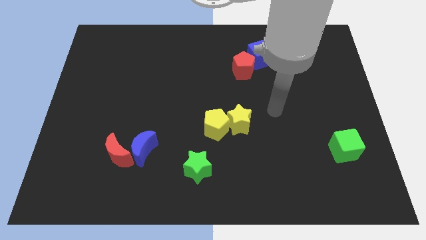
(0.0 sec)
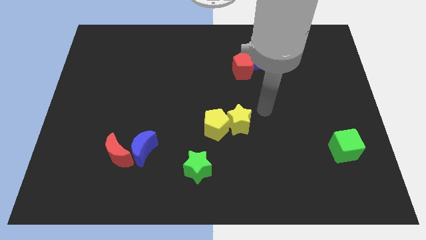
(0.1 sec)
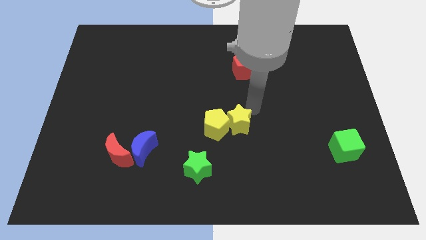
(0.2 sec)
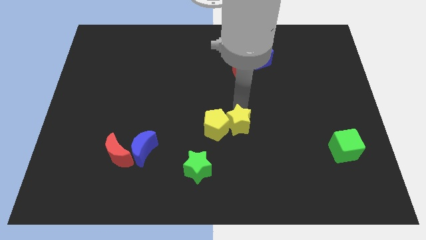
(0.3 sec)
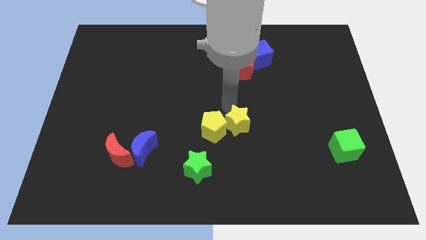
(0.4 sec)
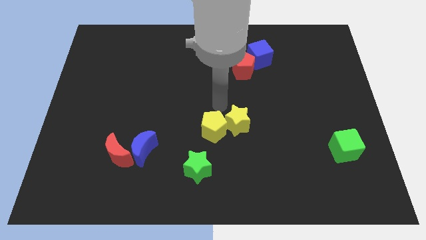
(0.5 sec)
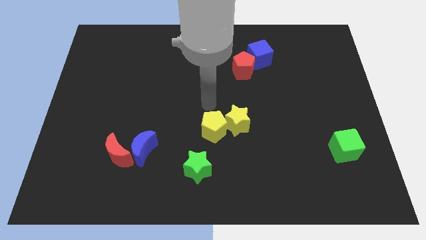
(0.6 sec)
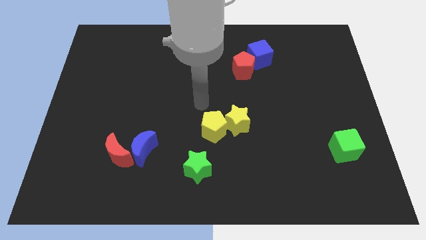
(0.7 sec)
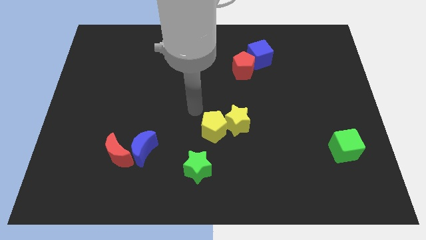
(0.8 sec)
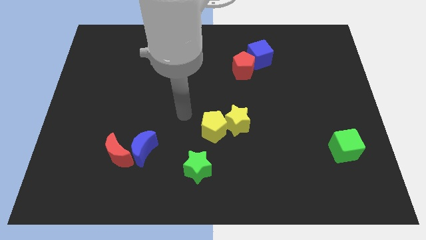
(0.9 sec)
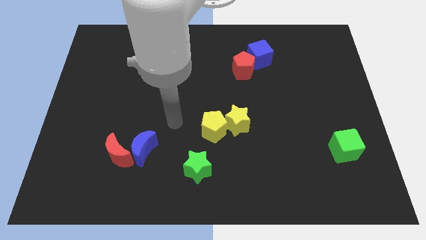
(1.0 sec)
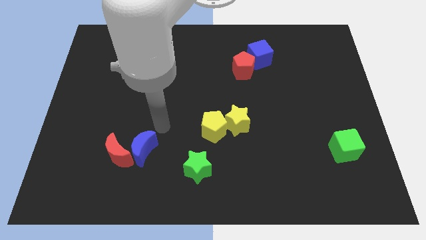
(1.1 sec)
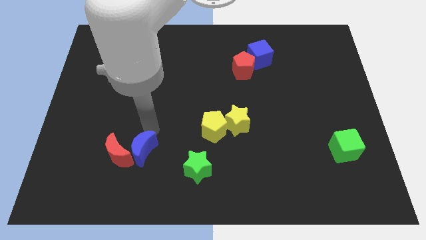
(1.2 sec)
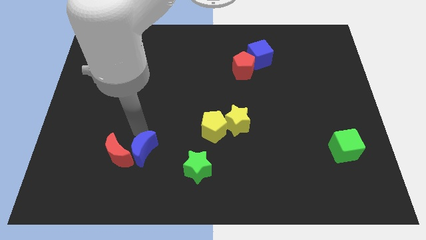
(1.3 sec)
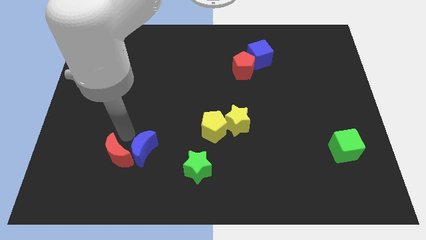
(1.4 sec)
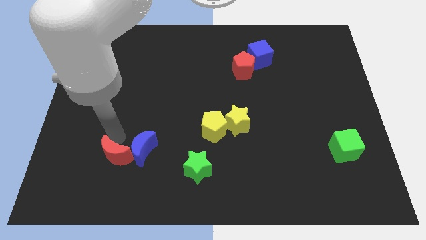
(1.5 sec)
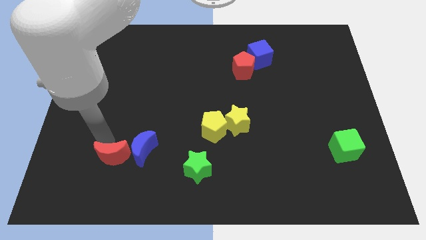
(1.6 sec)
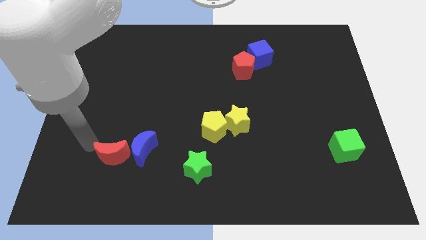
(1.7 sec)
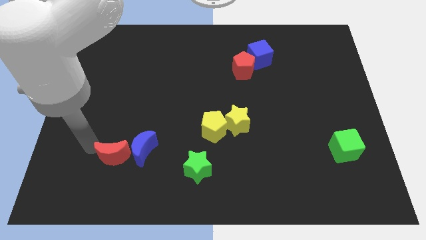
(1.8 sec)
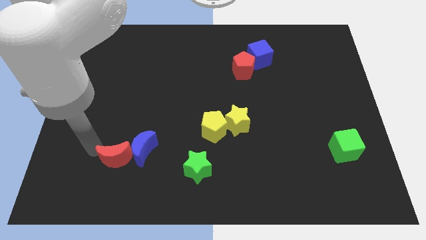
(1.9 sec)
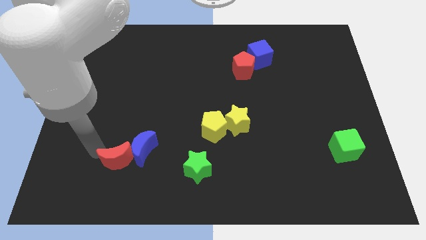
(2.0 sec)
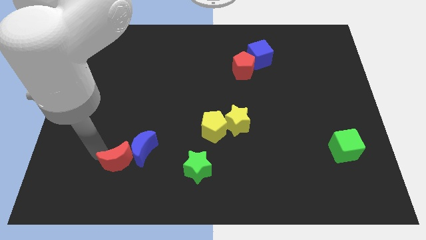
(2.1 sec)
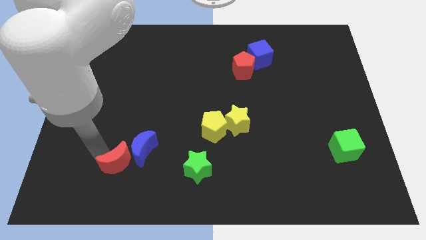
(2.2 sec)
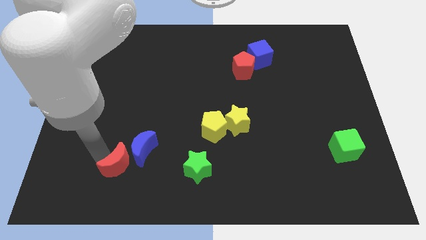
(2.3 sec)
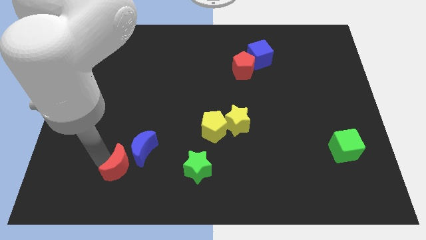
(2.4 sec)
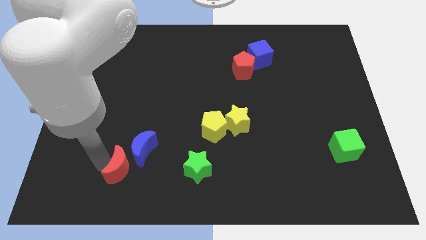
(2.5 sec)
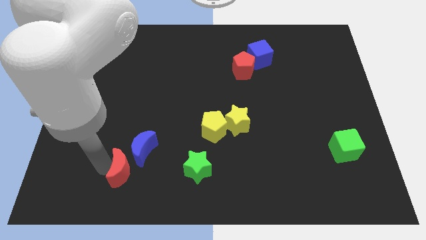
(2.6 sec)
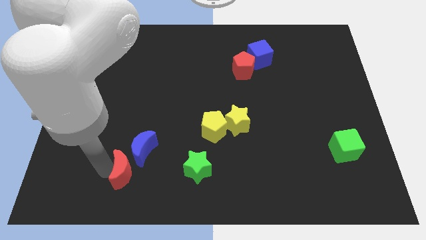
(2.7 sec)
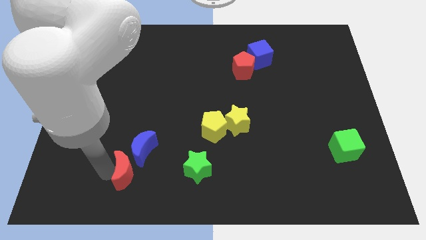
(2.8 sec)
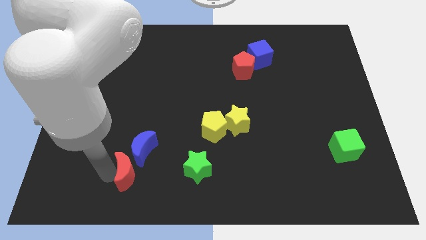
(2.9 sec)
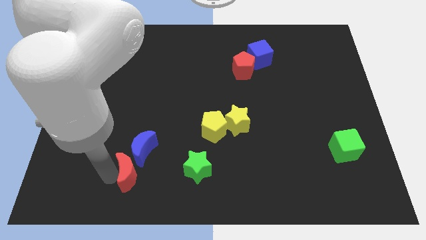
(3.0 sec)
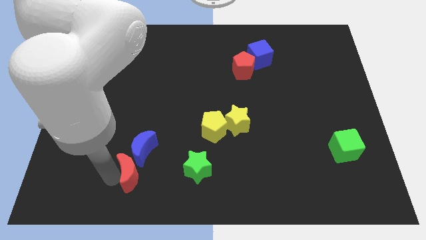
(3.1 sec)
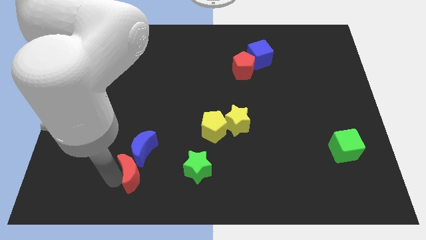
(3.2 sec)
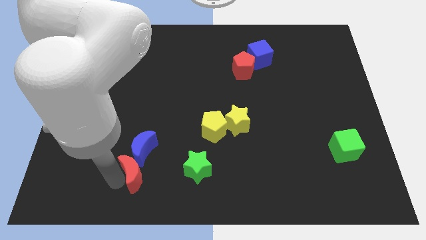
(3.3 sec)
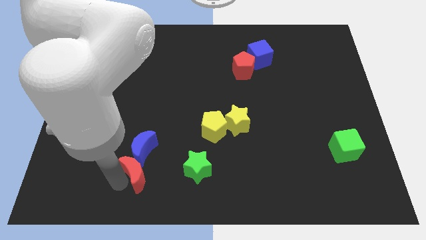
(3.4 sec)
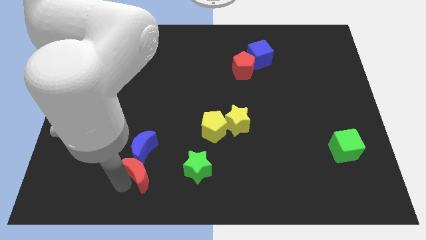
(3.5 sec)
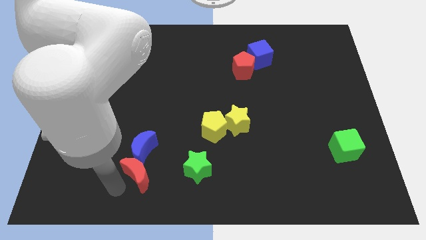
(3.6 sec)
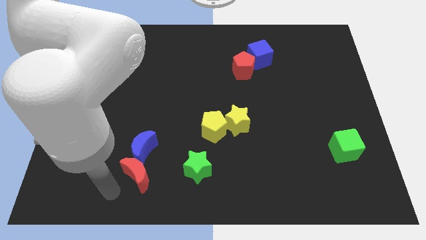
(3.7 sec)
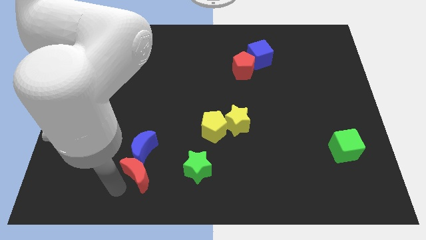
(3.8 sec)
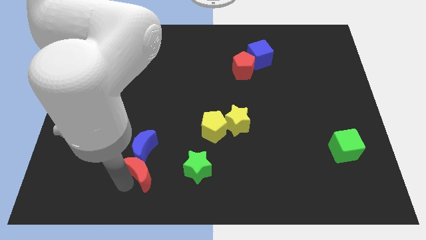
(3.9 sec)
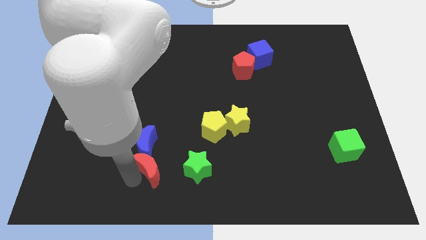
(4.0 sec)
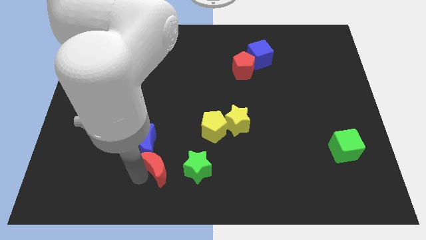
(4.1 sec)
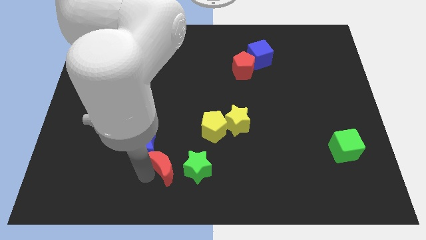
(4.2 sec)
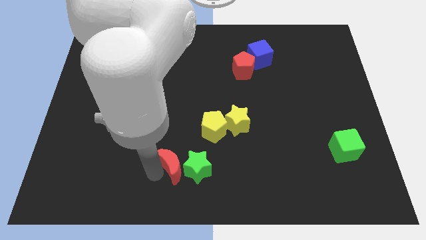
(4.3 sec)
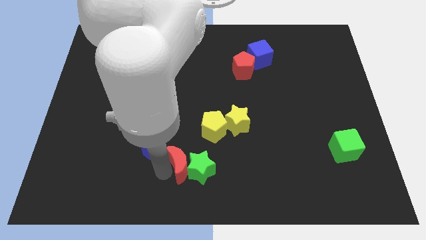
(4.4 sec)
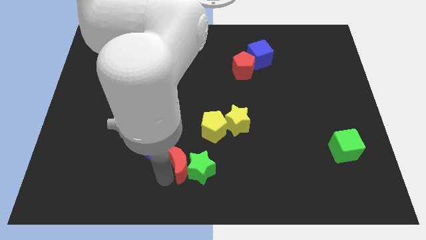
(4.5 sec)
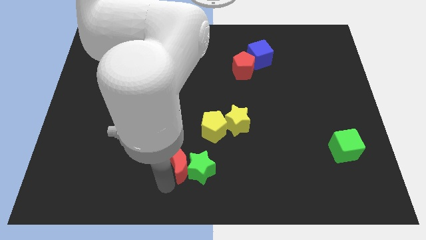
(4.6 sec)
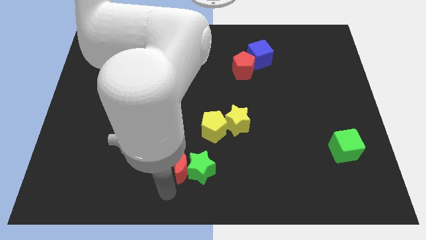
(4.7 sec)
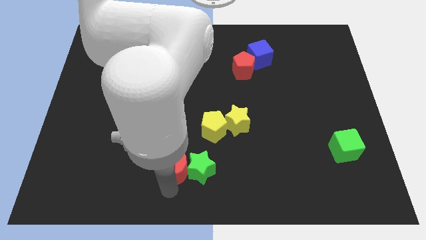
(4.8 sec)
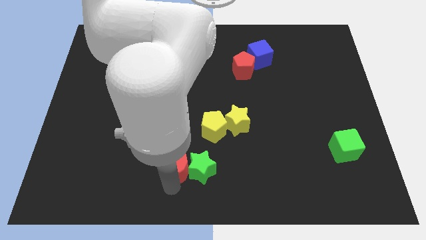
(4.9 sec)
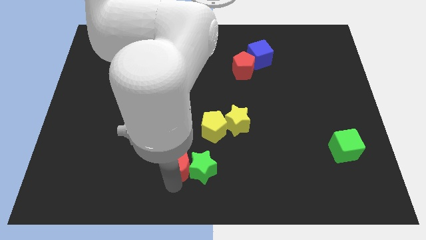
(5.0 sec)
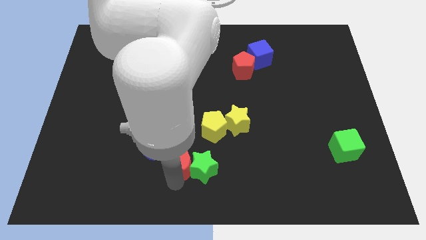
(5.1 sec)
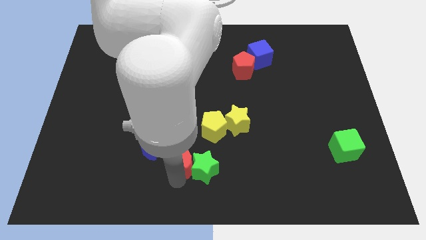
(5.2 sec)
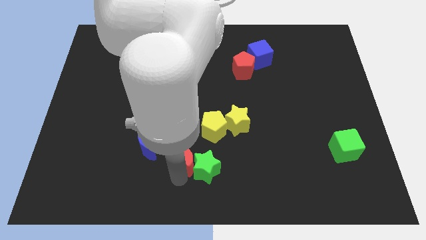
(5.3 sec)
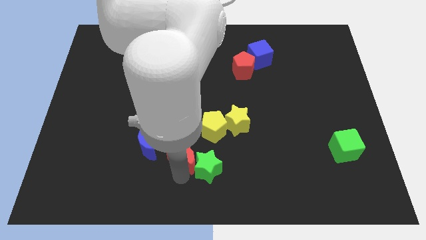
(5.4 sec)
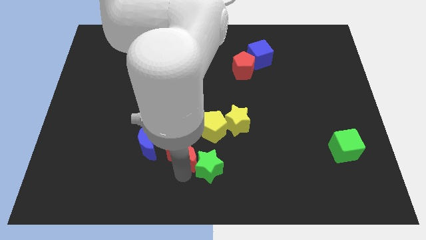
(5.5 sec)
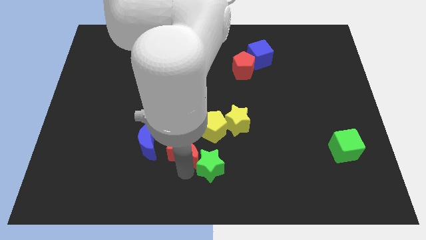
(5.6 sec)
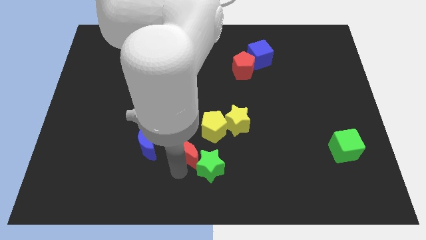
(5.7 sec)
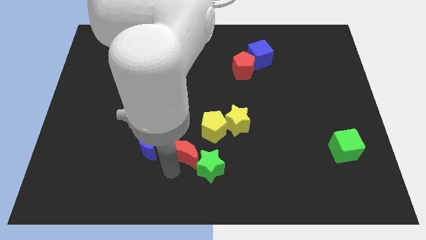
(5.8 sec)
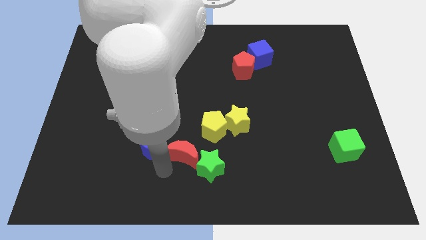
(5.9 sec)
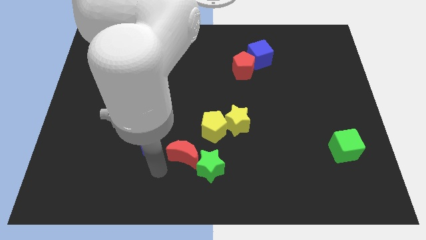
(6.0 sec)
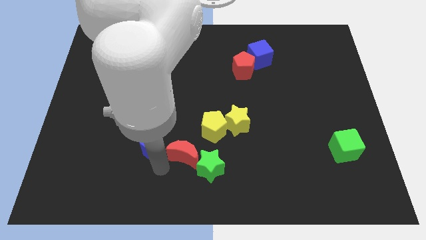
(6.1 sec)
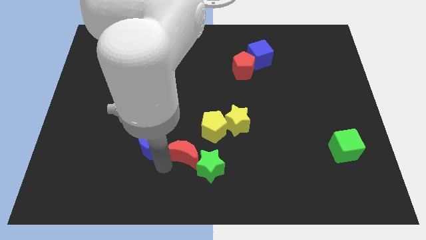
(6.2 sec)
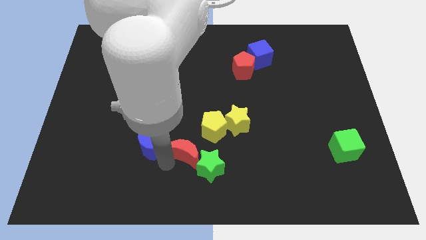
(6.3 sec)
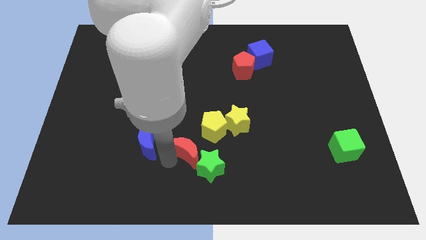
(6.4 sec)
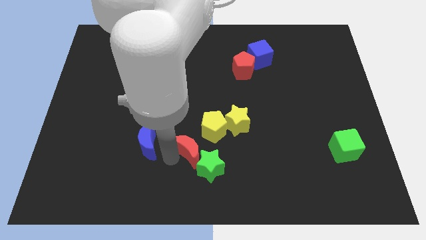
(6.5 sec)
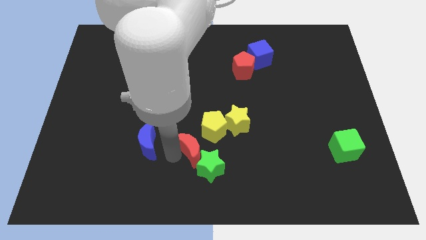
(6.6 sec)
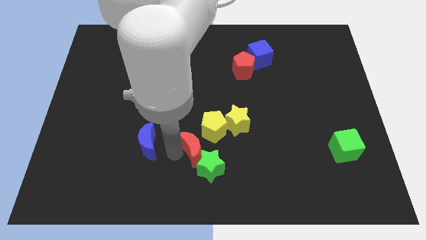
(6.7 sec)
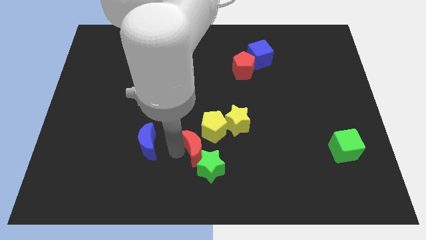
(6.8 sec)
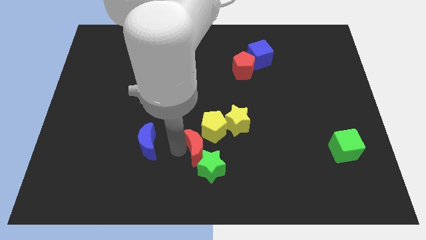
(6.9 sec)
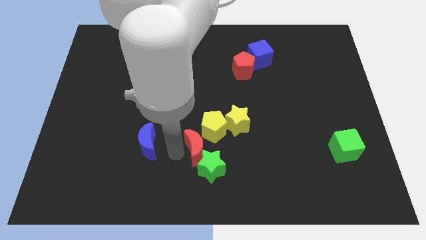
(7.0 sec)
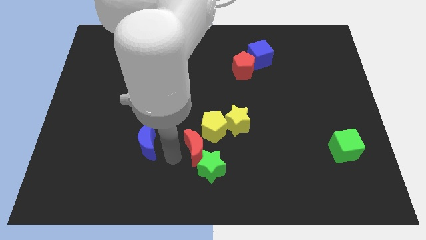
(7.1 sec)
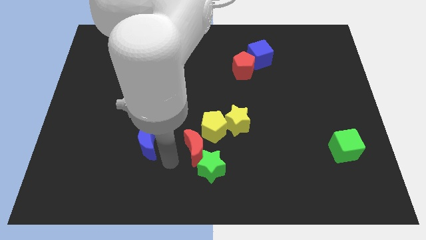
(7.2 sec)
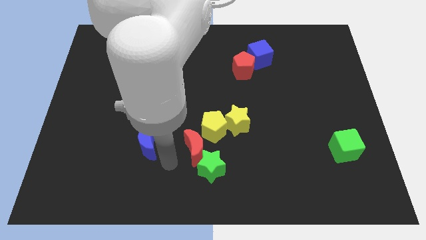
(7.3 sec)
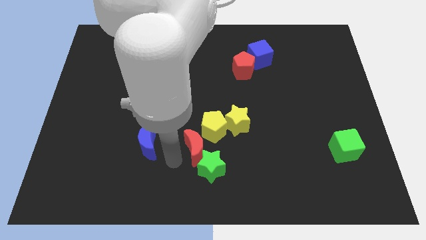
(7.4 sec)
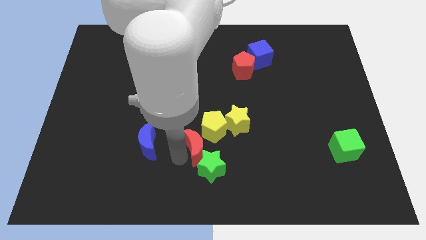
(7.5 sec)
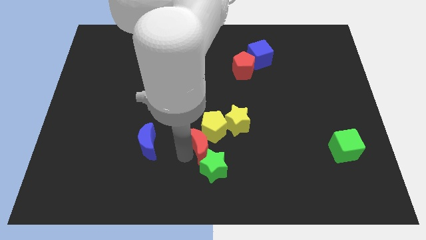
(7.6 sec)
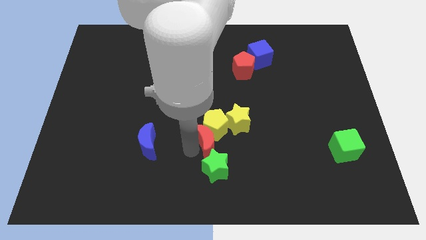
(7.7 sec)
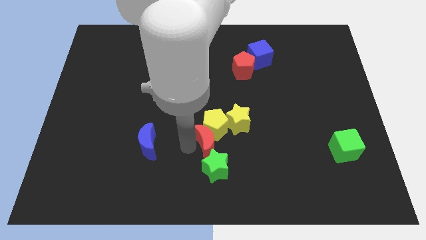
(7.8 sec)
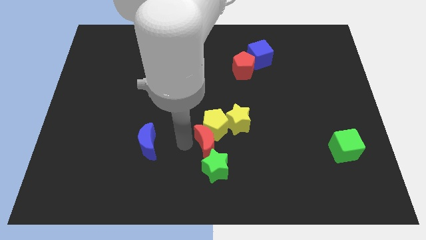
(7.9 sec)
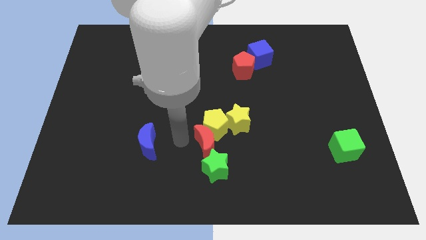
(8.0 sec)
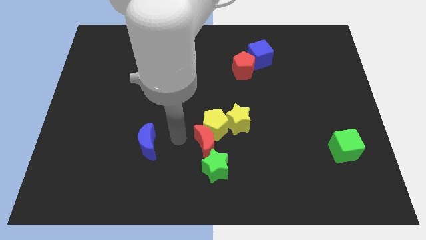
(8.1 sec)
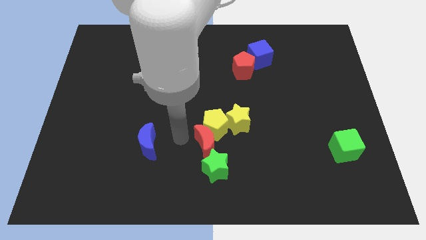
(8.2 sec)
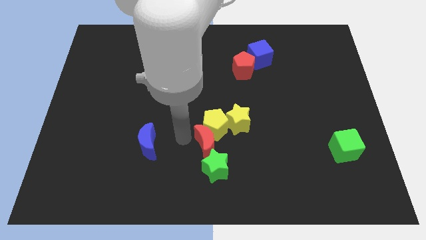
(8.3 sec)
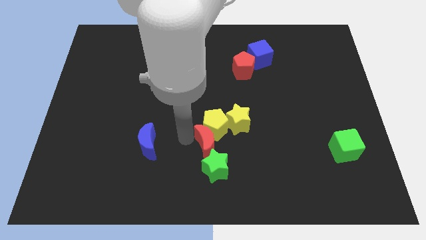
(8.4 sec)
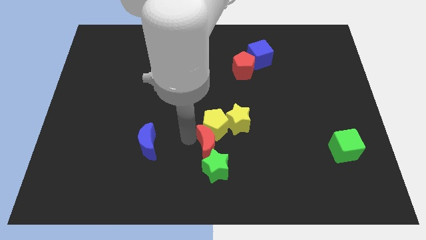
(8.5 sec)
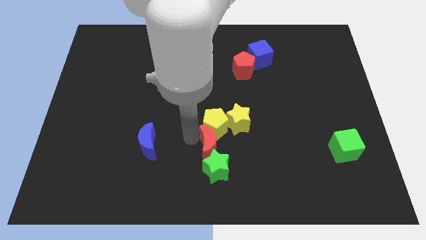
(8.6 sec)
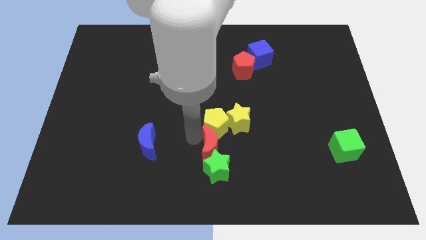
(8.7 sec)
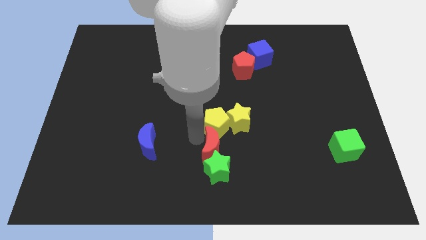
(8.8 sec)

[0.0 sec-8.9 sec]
move the red moon to the right
